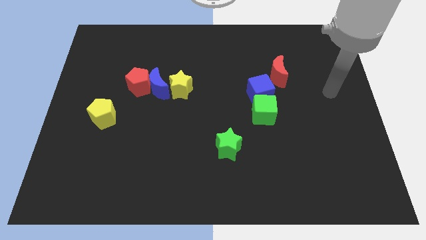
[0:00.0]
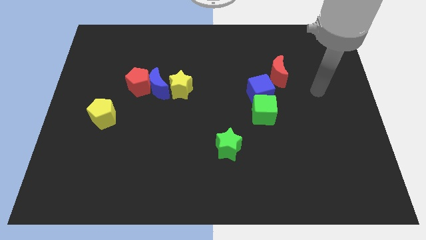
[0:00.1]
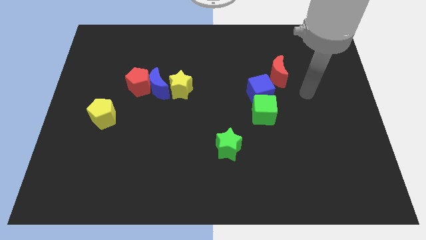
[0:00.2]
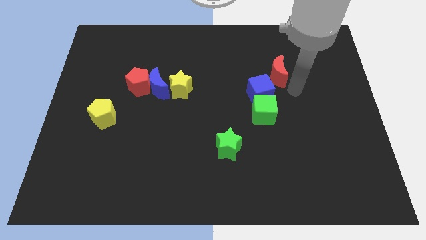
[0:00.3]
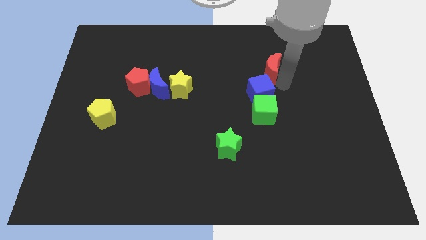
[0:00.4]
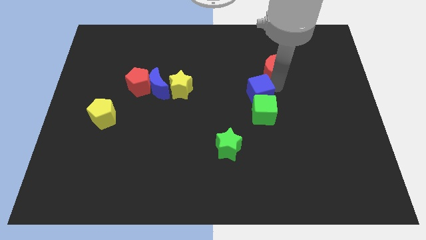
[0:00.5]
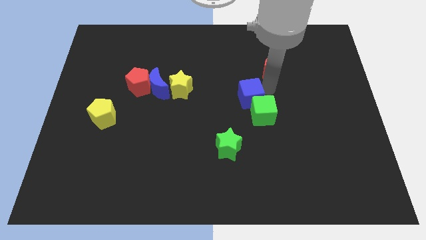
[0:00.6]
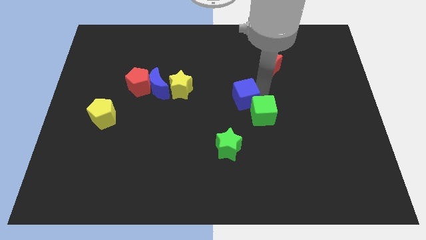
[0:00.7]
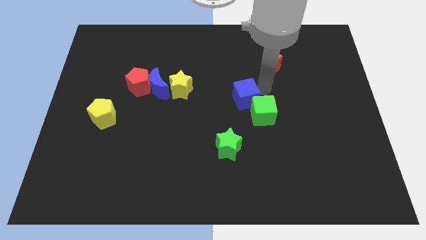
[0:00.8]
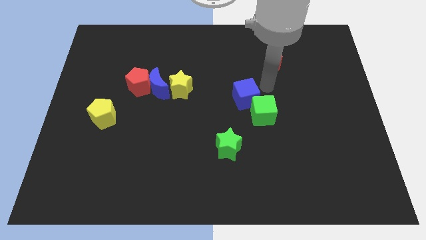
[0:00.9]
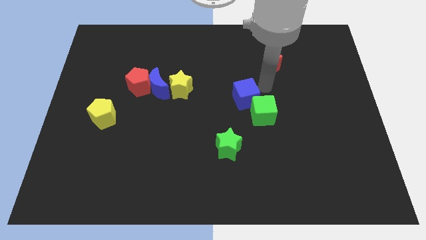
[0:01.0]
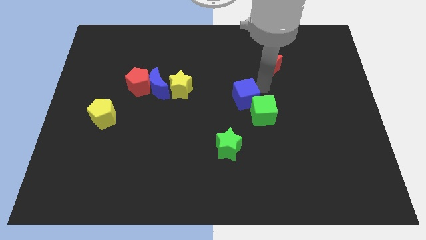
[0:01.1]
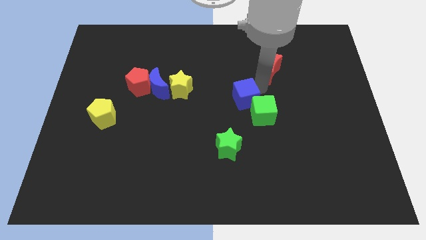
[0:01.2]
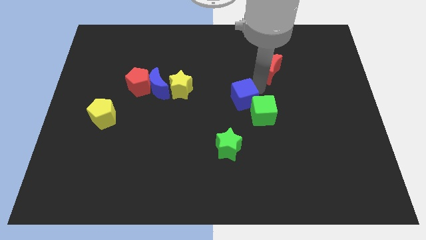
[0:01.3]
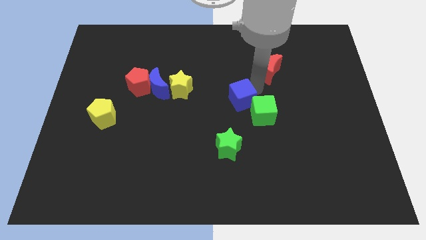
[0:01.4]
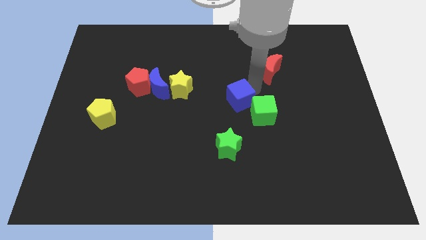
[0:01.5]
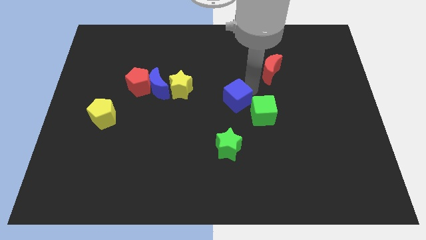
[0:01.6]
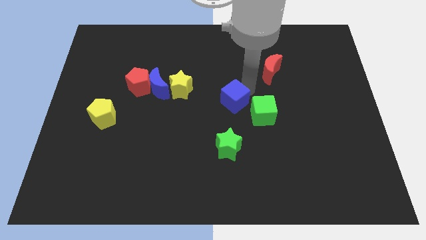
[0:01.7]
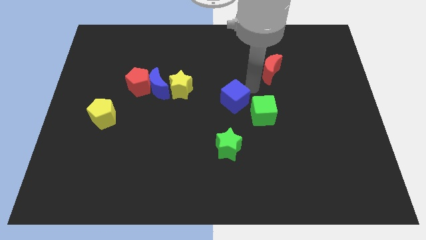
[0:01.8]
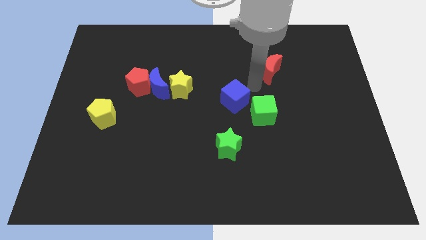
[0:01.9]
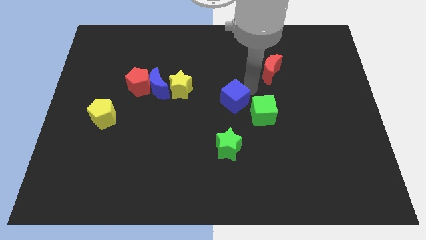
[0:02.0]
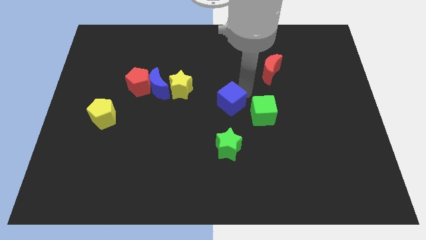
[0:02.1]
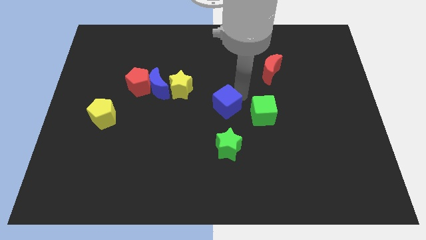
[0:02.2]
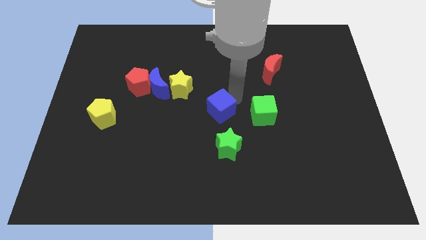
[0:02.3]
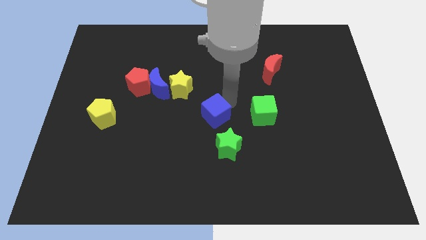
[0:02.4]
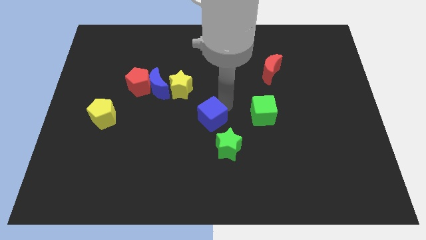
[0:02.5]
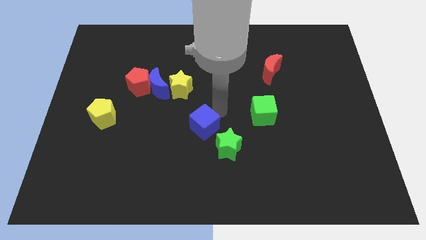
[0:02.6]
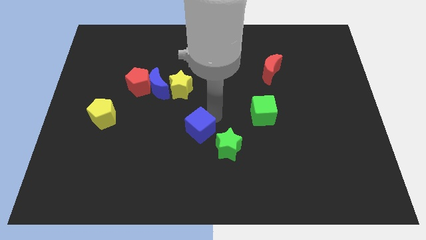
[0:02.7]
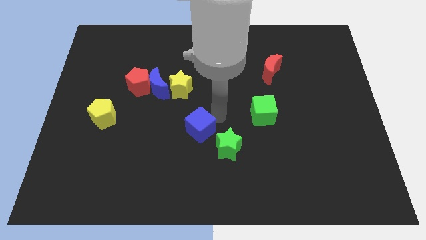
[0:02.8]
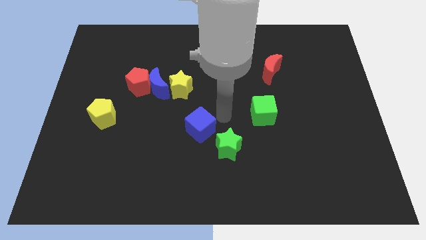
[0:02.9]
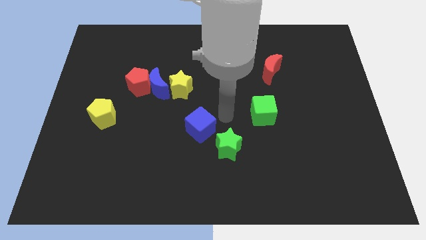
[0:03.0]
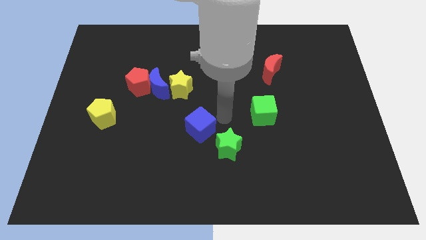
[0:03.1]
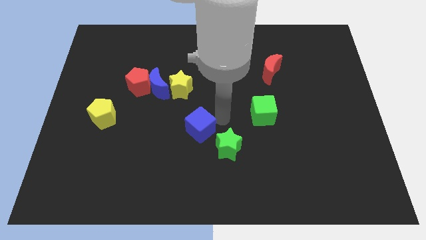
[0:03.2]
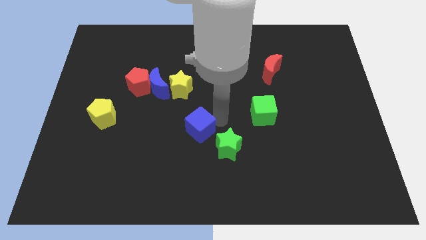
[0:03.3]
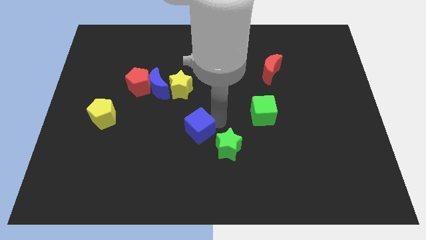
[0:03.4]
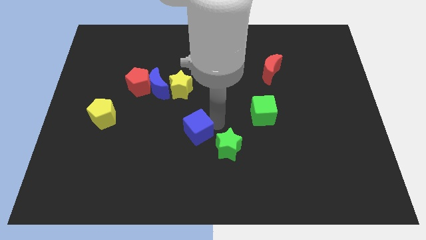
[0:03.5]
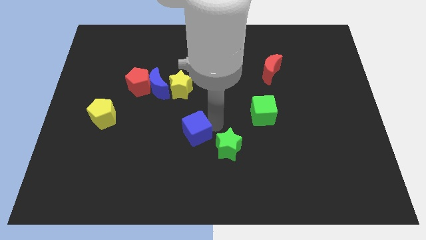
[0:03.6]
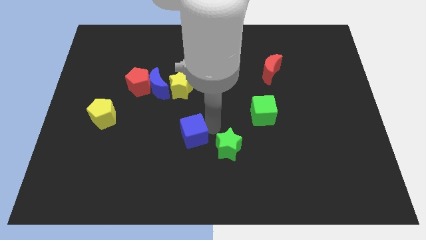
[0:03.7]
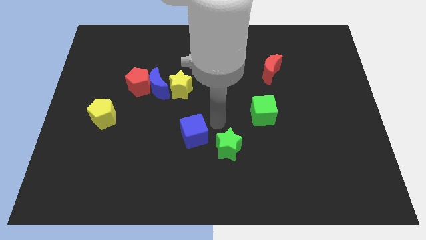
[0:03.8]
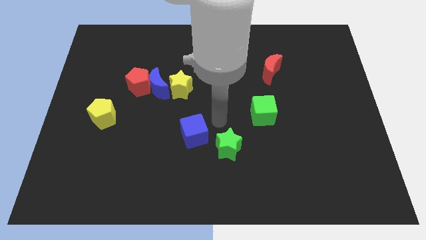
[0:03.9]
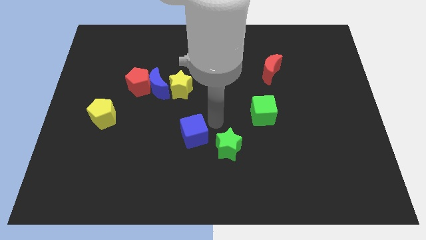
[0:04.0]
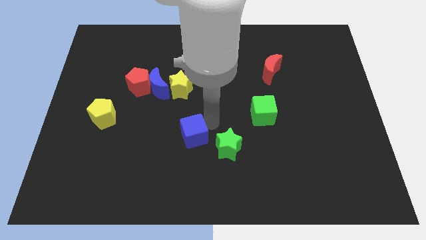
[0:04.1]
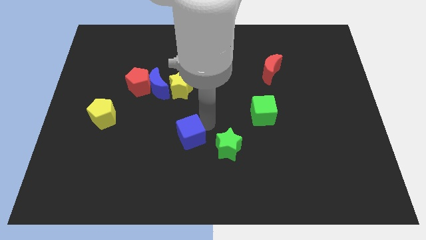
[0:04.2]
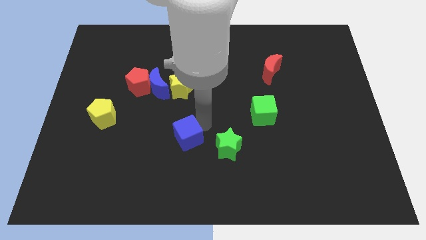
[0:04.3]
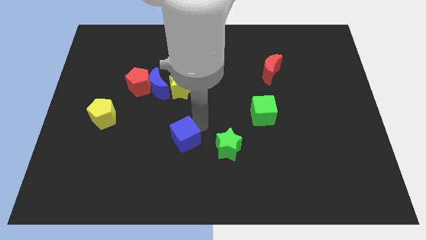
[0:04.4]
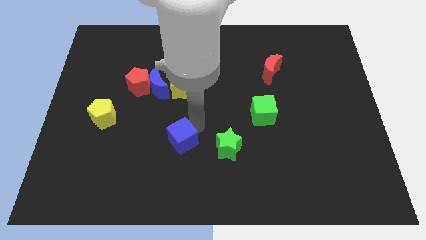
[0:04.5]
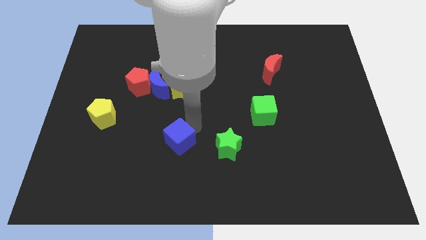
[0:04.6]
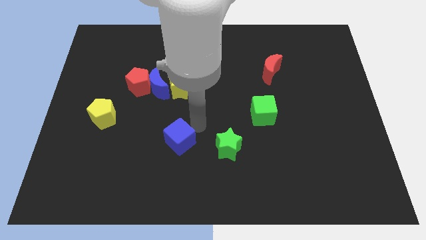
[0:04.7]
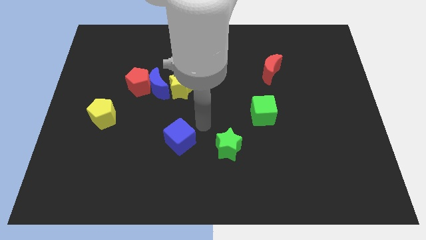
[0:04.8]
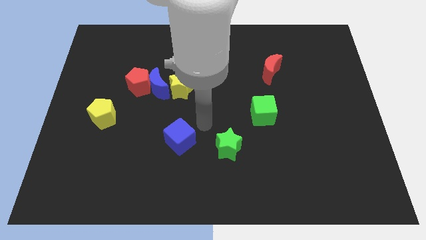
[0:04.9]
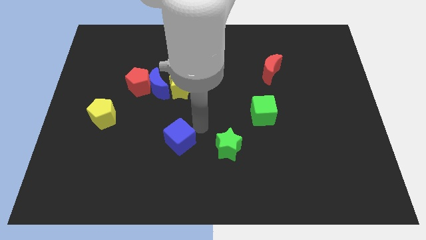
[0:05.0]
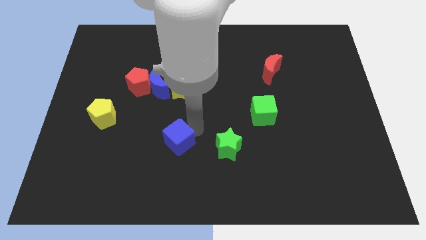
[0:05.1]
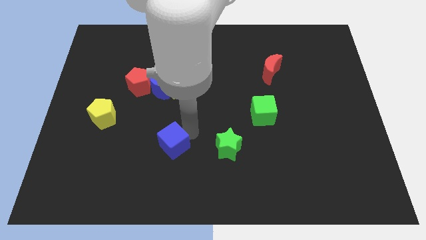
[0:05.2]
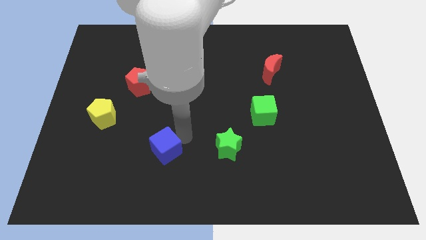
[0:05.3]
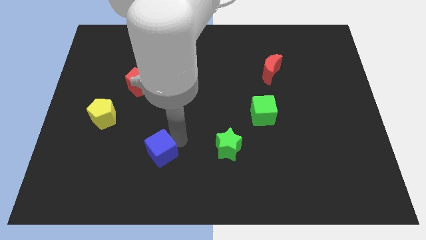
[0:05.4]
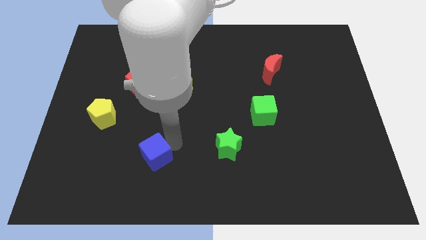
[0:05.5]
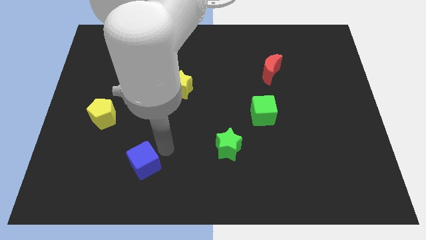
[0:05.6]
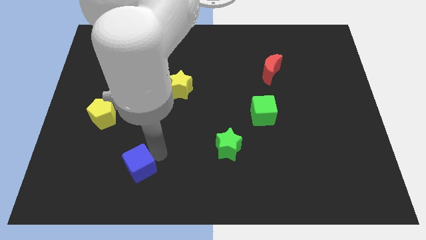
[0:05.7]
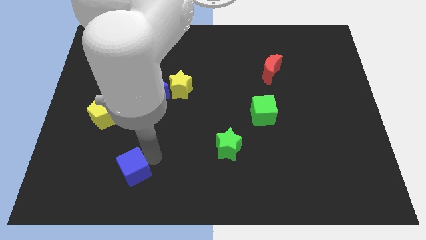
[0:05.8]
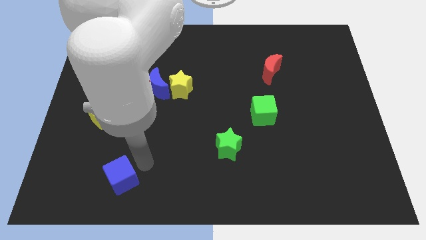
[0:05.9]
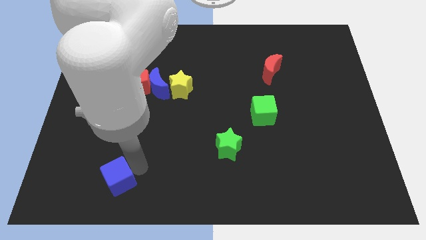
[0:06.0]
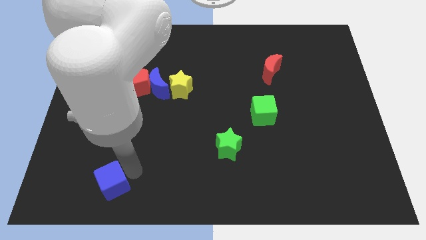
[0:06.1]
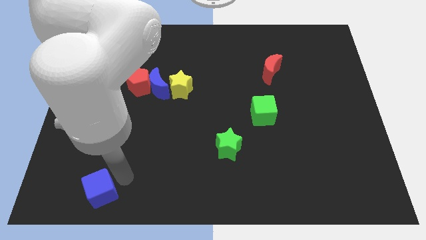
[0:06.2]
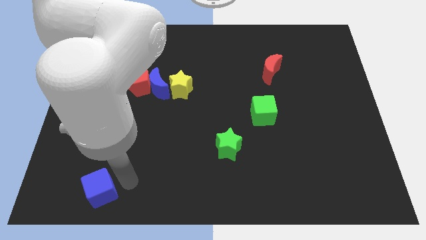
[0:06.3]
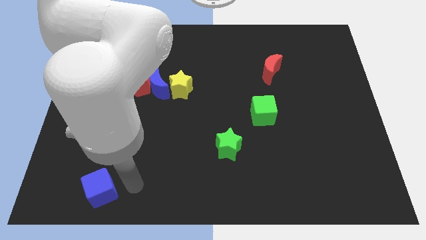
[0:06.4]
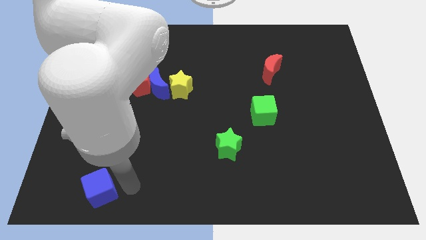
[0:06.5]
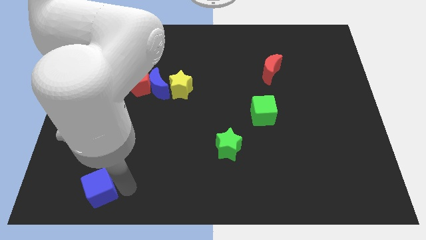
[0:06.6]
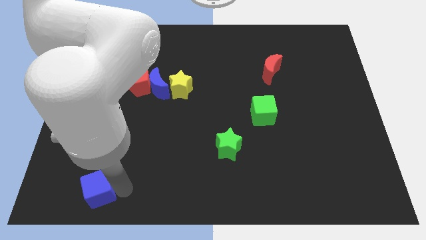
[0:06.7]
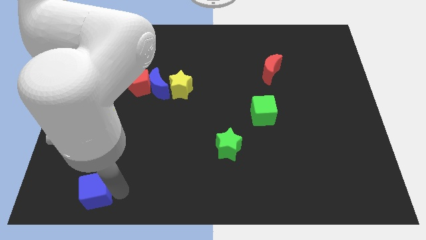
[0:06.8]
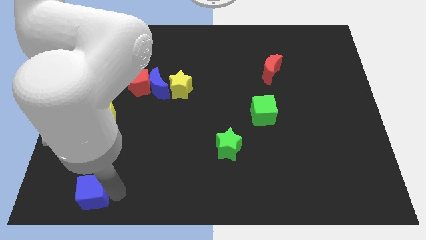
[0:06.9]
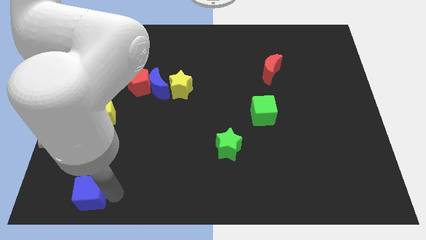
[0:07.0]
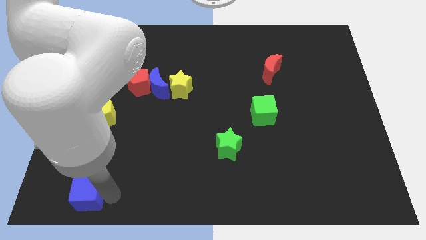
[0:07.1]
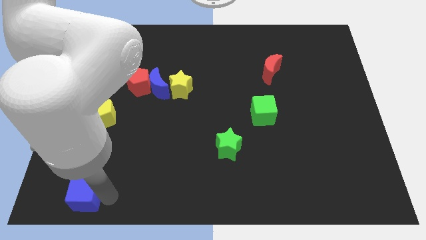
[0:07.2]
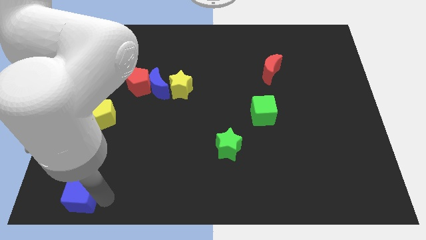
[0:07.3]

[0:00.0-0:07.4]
slide the blue cube to the bottom left
